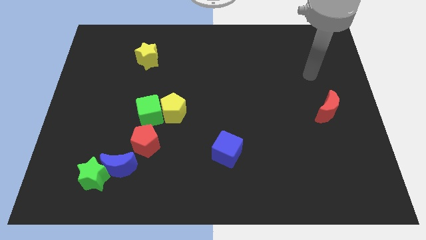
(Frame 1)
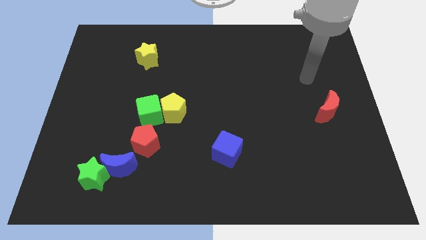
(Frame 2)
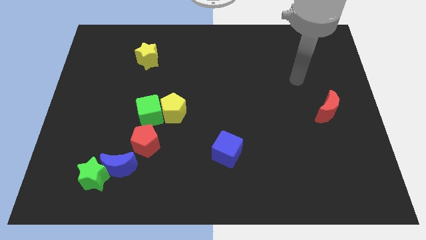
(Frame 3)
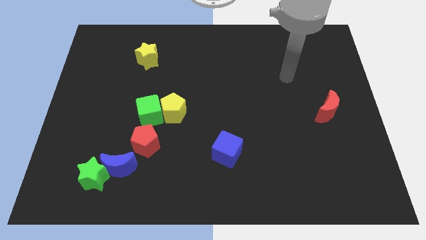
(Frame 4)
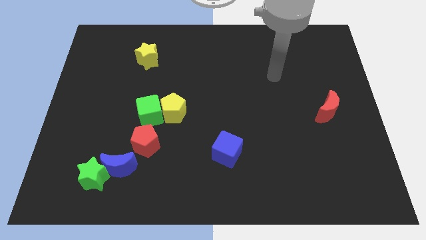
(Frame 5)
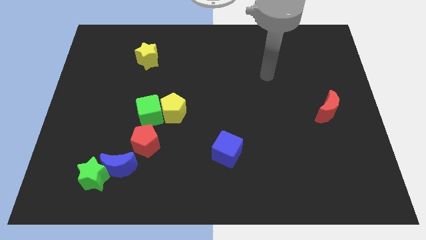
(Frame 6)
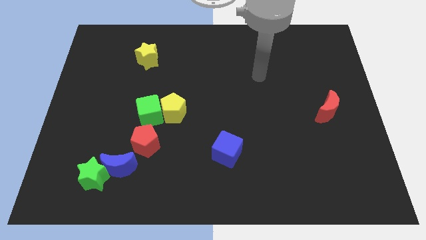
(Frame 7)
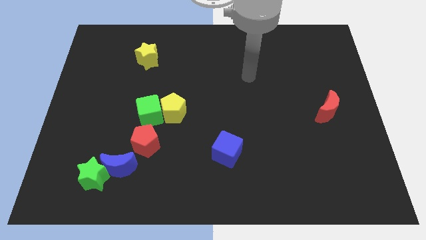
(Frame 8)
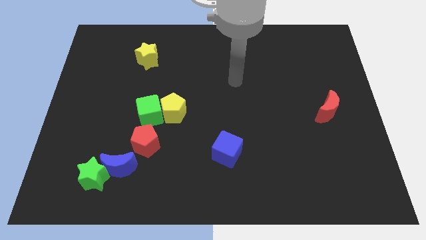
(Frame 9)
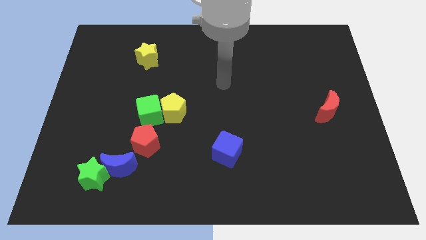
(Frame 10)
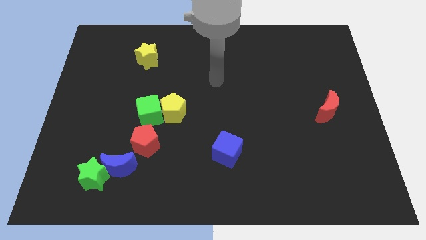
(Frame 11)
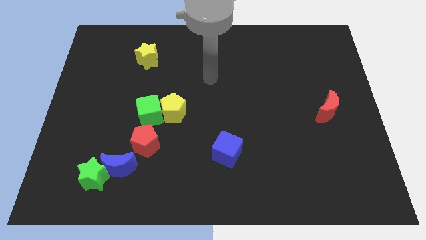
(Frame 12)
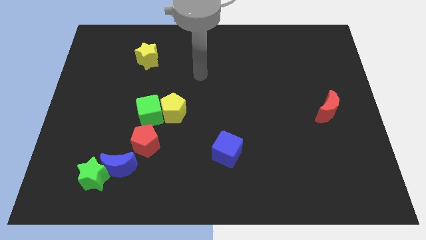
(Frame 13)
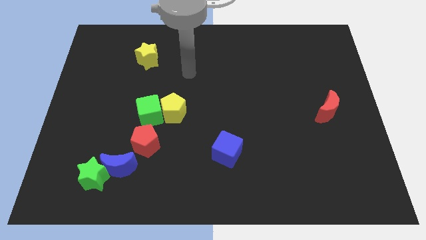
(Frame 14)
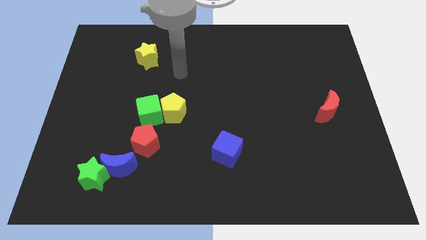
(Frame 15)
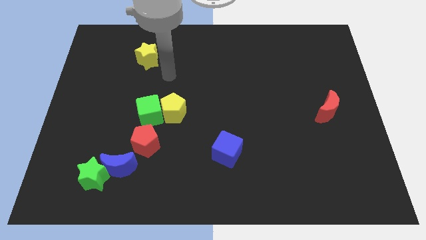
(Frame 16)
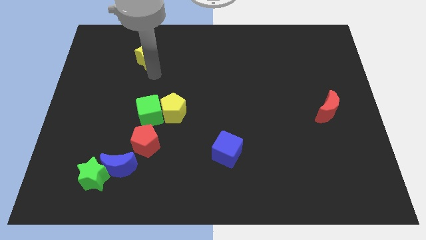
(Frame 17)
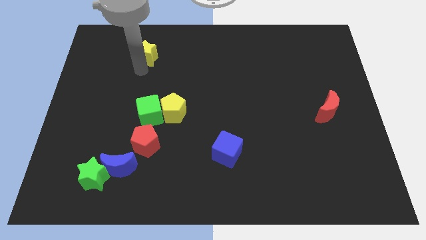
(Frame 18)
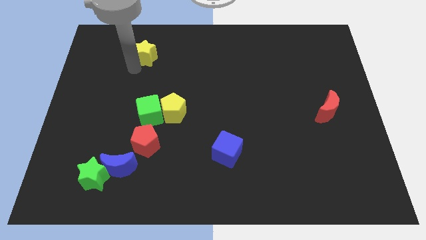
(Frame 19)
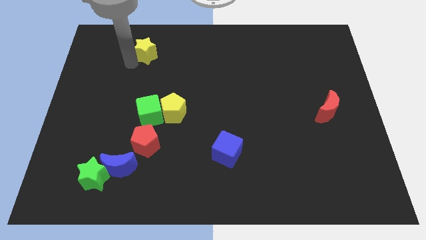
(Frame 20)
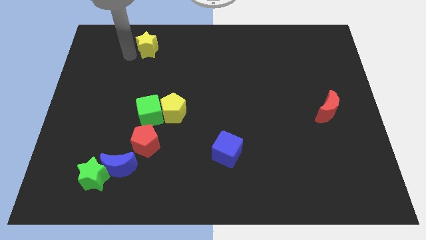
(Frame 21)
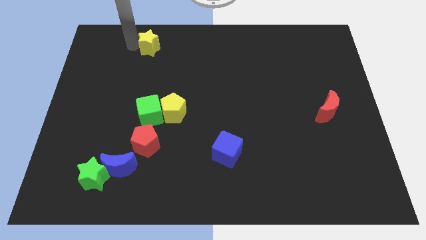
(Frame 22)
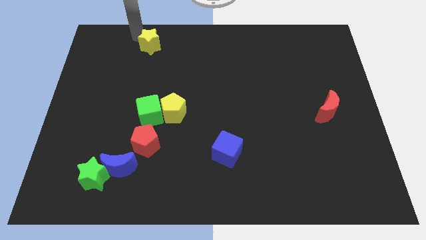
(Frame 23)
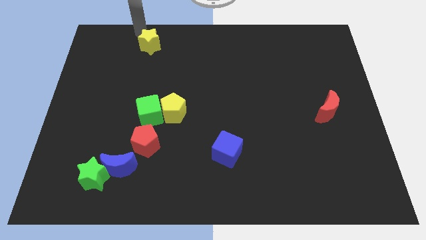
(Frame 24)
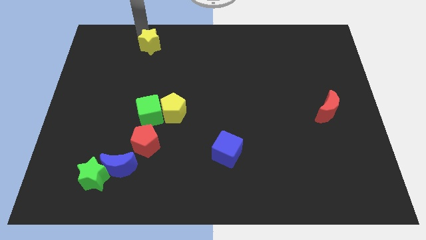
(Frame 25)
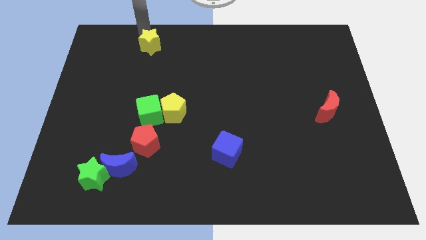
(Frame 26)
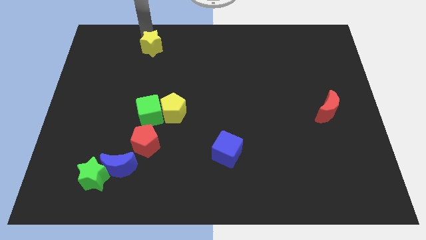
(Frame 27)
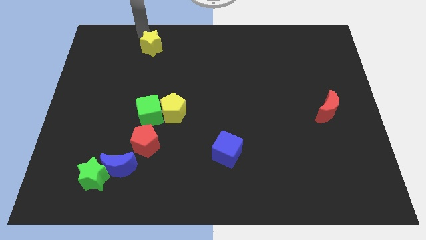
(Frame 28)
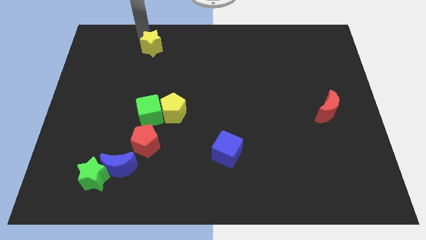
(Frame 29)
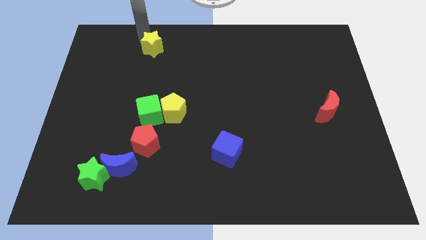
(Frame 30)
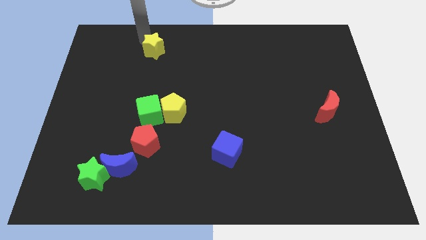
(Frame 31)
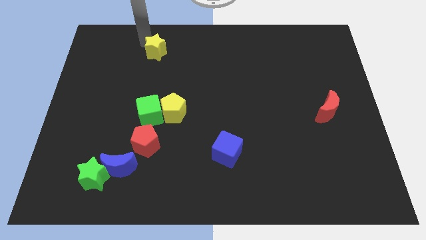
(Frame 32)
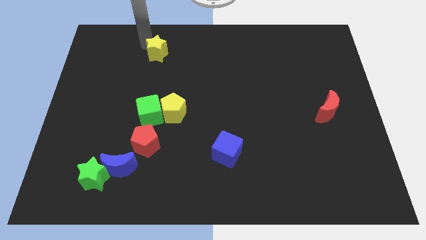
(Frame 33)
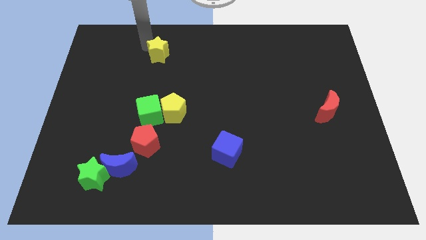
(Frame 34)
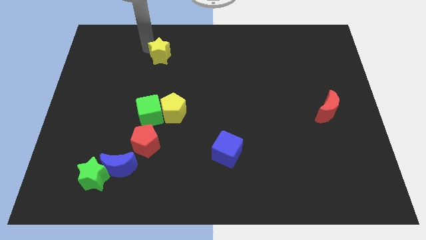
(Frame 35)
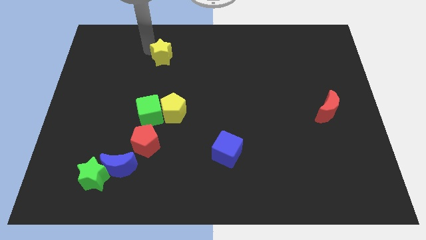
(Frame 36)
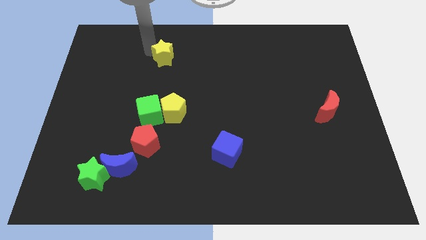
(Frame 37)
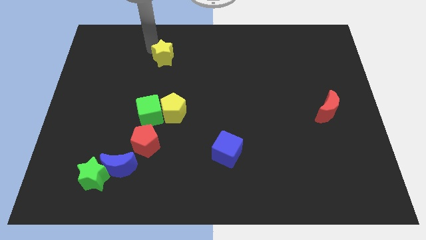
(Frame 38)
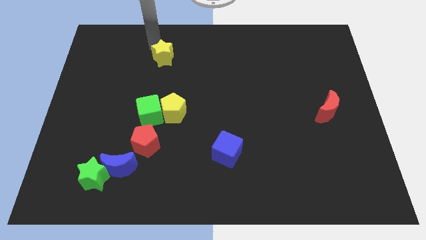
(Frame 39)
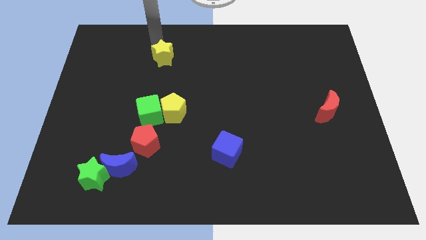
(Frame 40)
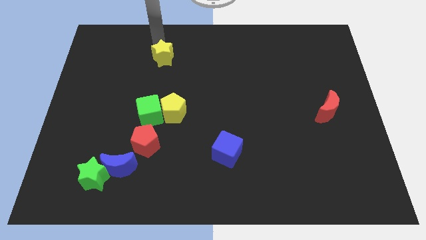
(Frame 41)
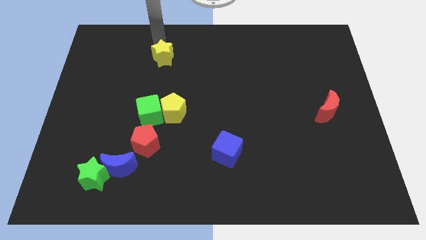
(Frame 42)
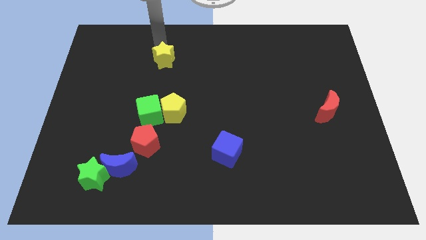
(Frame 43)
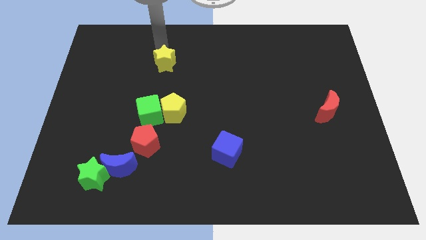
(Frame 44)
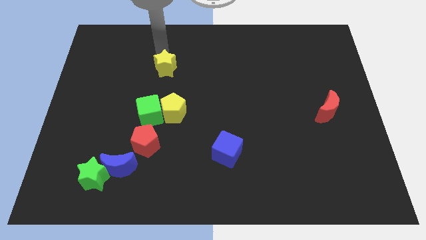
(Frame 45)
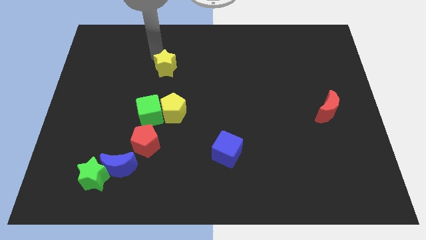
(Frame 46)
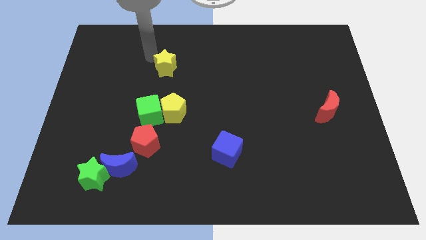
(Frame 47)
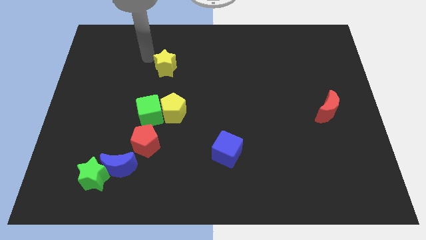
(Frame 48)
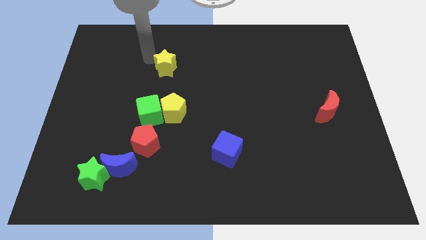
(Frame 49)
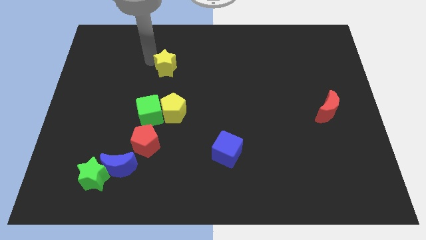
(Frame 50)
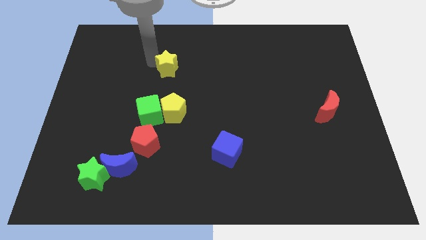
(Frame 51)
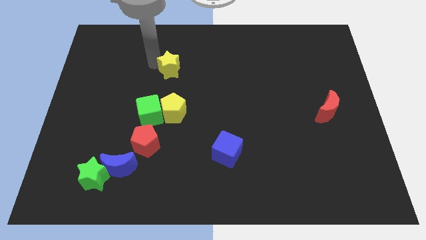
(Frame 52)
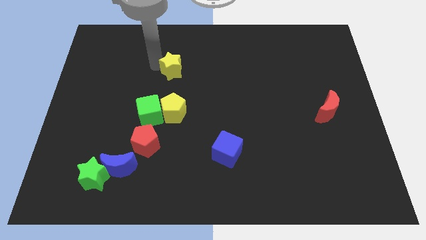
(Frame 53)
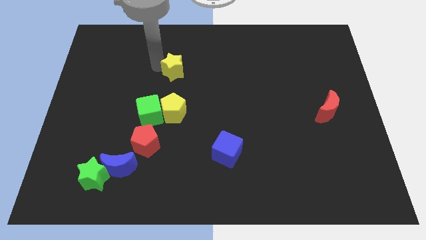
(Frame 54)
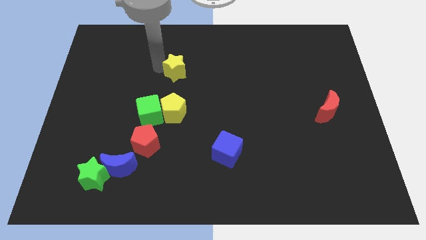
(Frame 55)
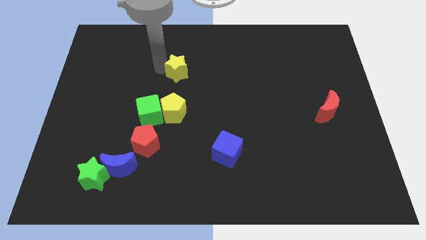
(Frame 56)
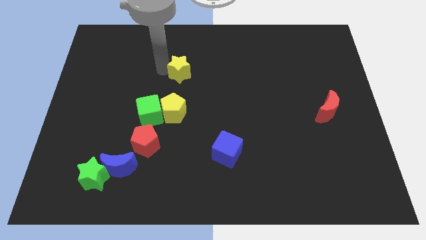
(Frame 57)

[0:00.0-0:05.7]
put the yellow star to the center

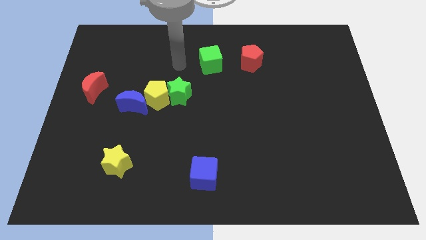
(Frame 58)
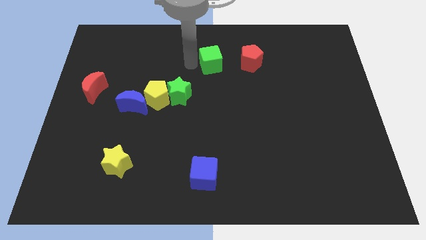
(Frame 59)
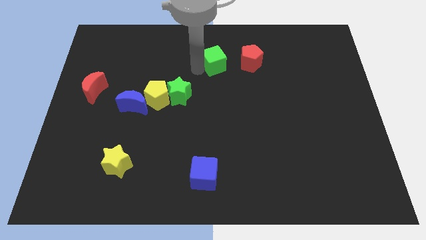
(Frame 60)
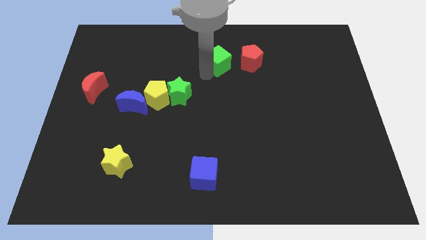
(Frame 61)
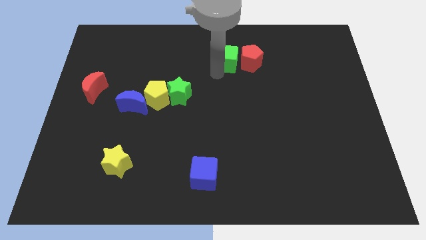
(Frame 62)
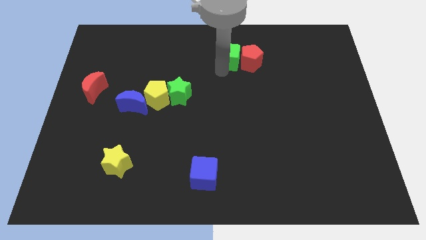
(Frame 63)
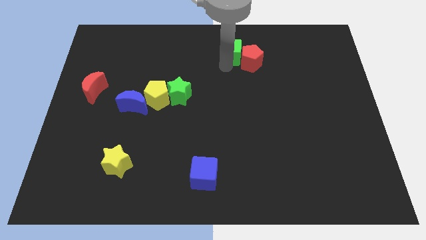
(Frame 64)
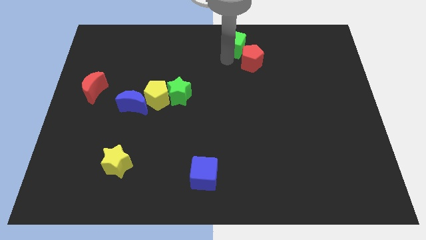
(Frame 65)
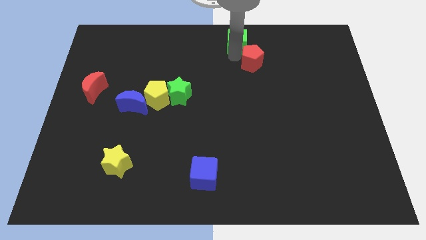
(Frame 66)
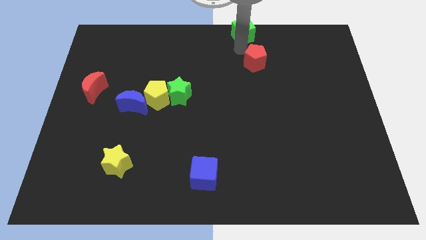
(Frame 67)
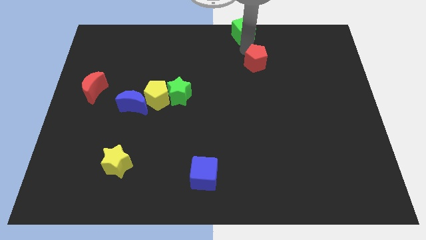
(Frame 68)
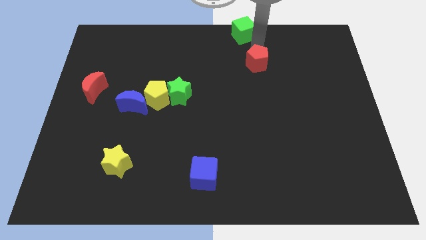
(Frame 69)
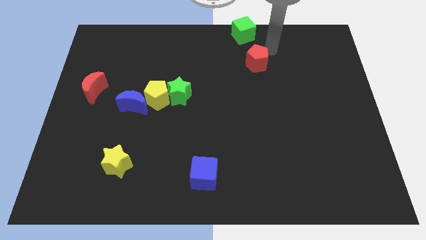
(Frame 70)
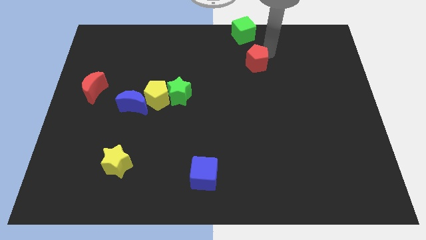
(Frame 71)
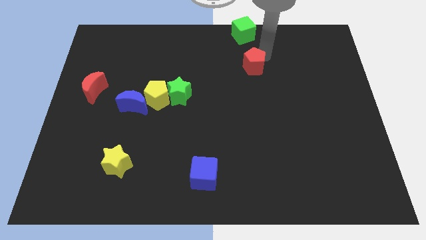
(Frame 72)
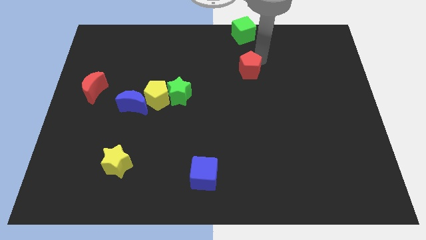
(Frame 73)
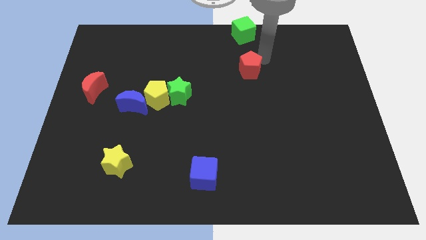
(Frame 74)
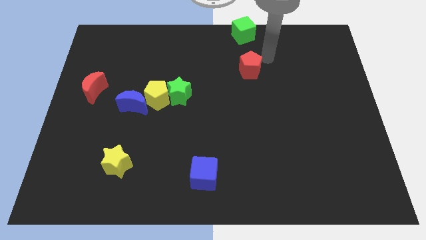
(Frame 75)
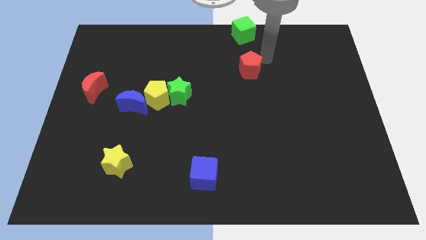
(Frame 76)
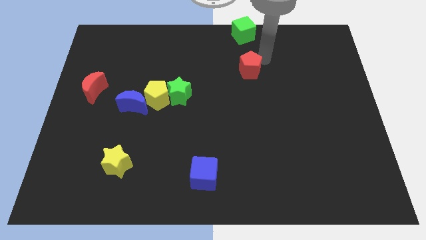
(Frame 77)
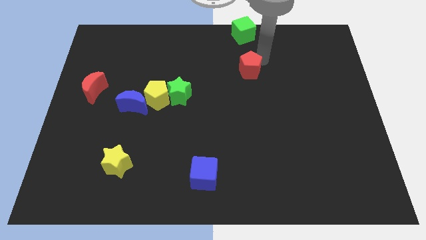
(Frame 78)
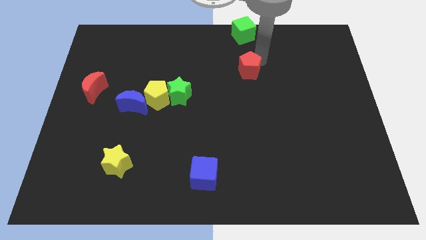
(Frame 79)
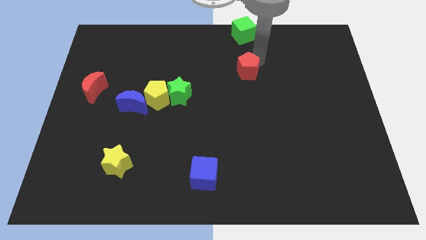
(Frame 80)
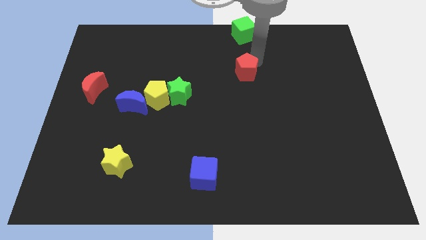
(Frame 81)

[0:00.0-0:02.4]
put the red pentagon to the center of the board
